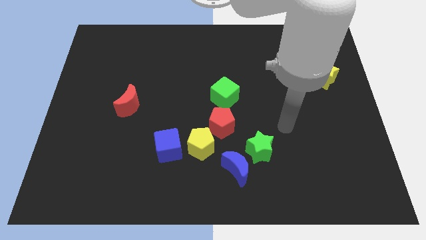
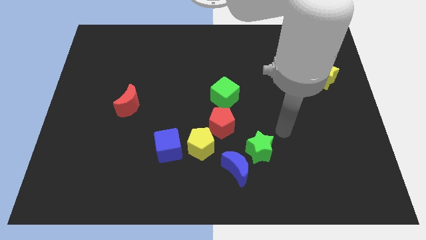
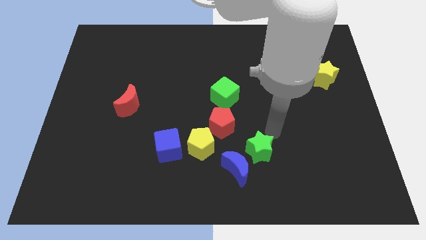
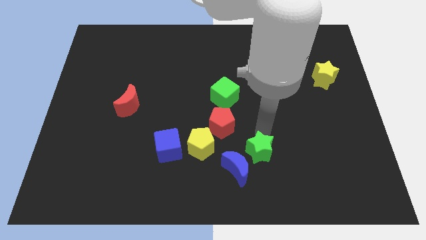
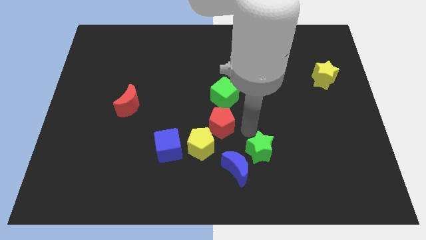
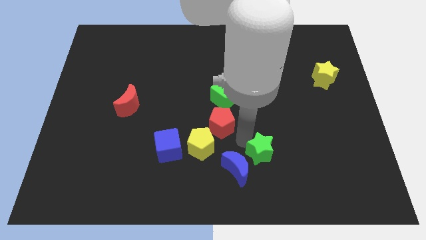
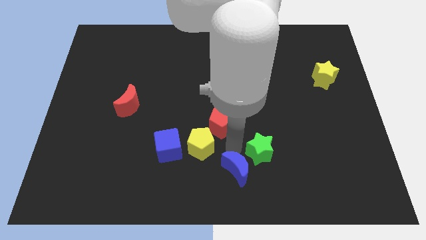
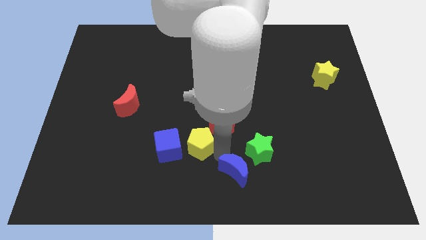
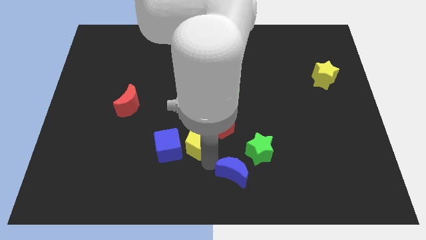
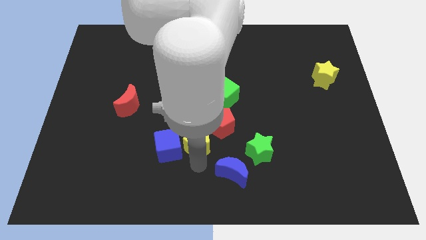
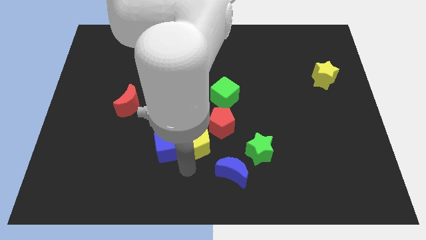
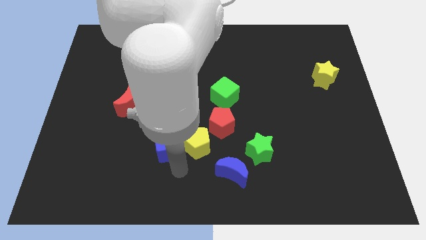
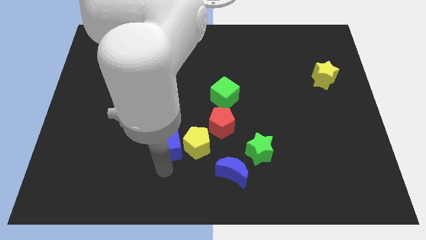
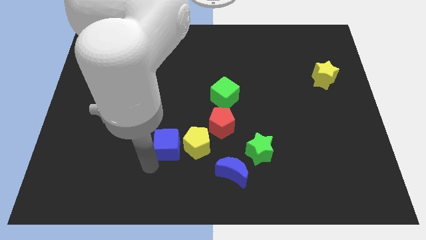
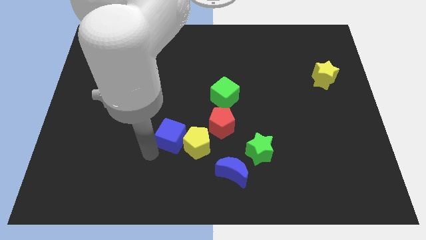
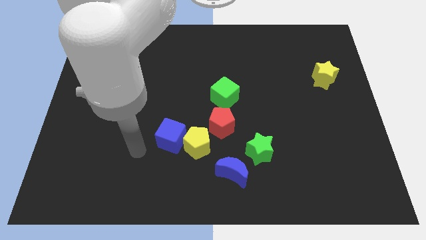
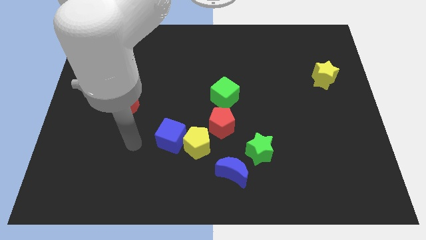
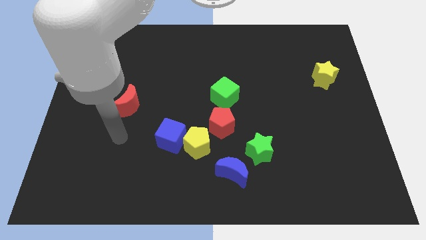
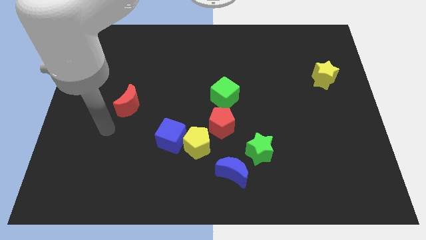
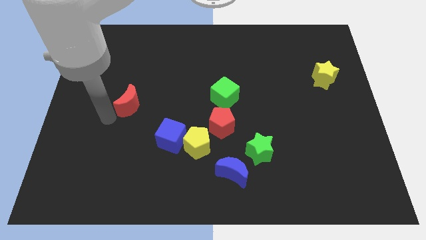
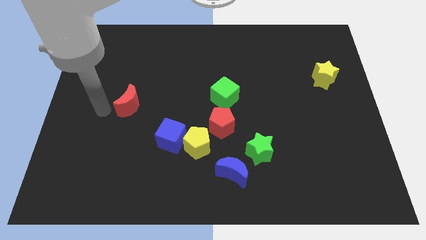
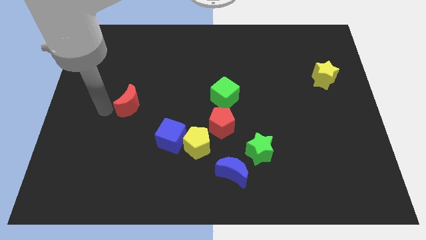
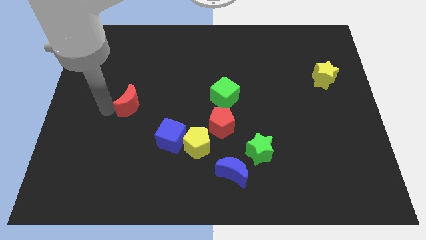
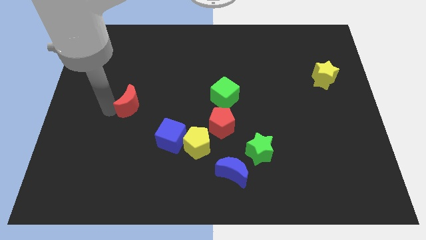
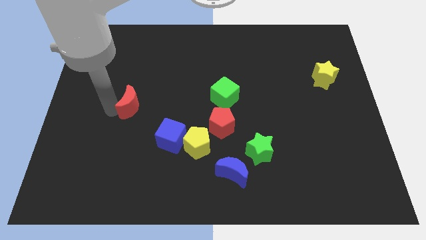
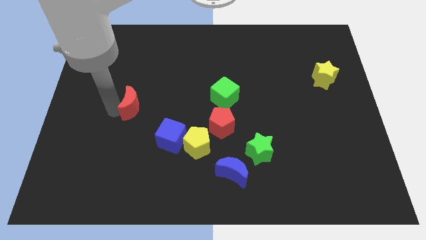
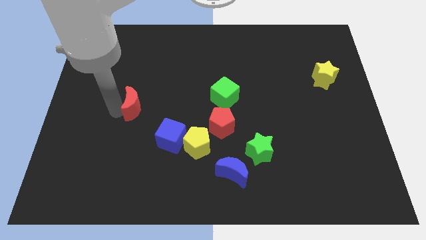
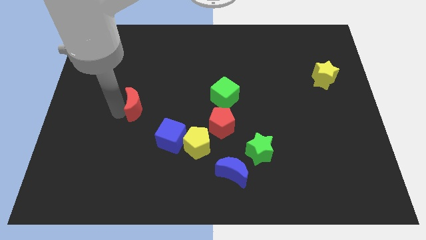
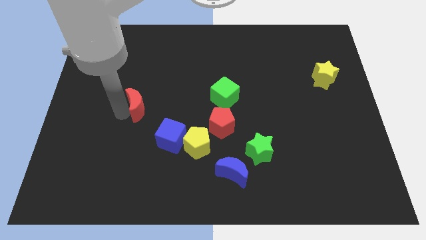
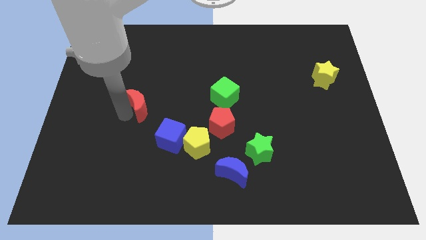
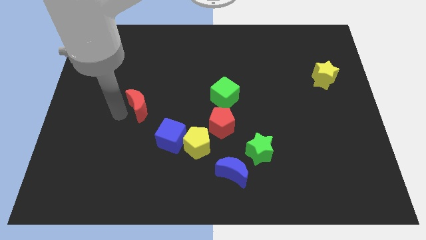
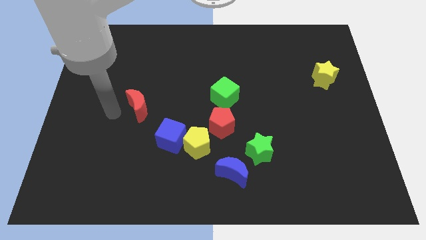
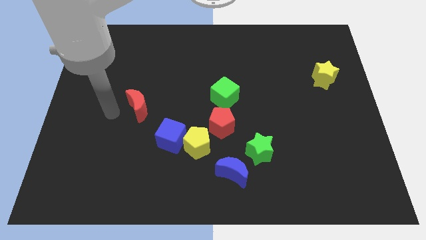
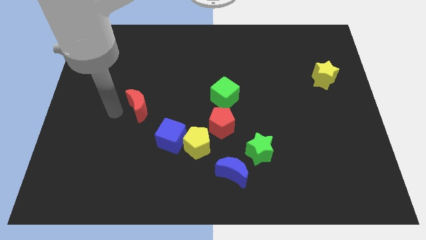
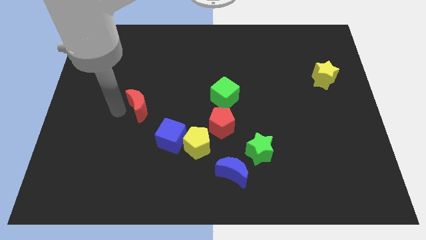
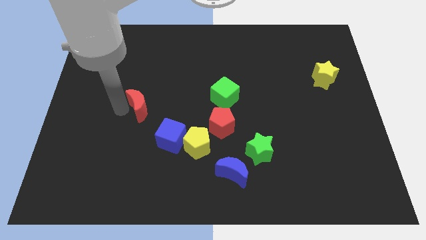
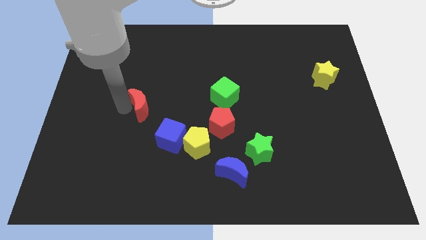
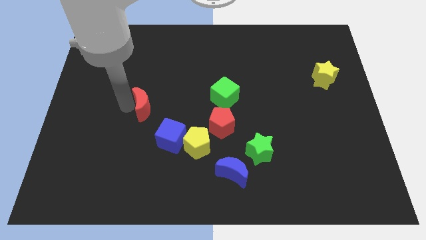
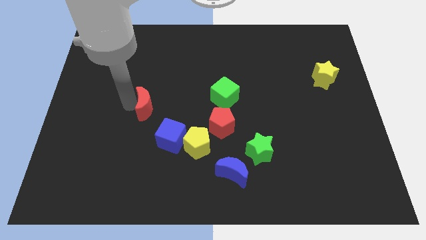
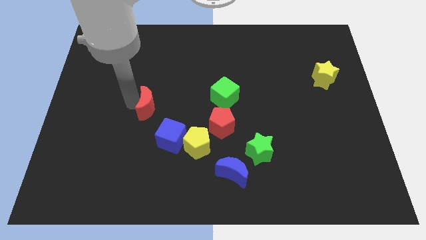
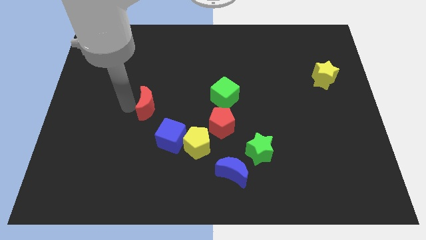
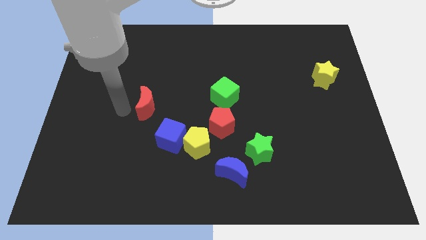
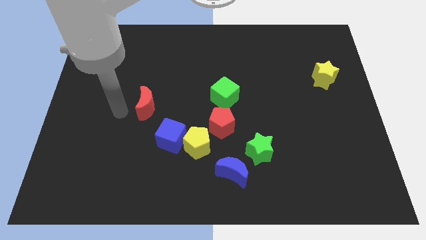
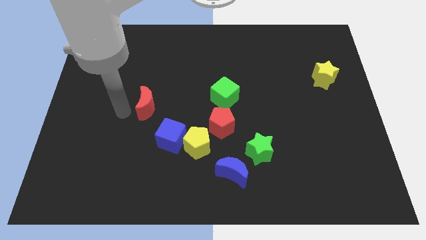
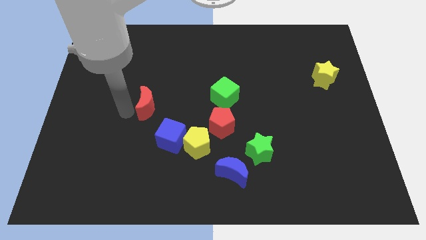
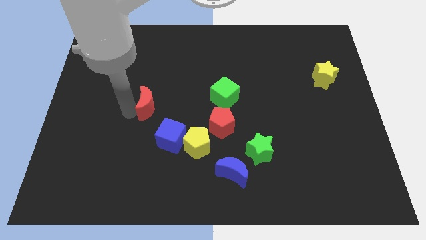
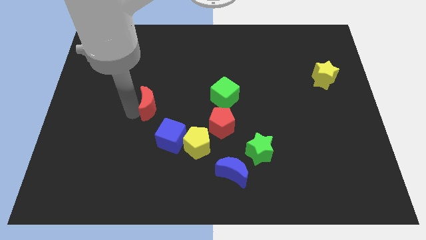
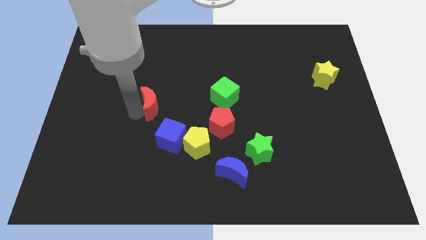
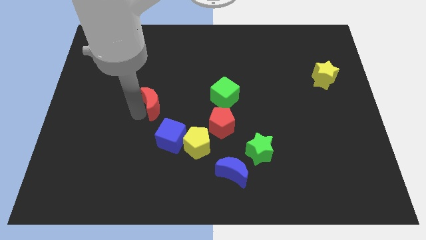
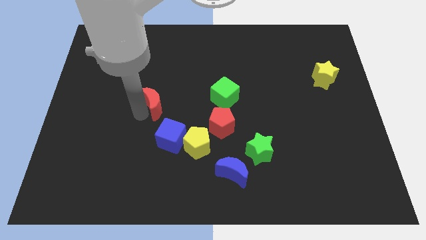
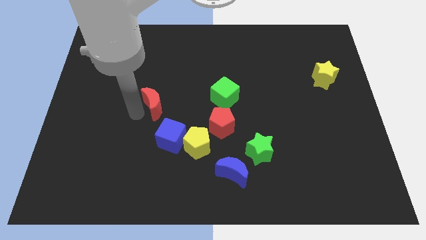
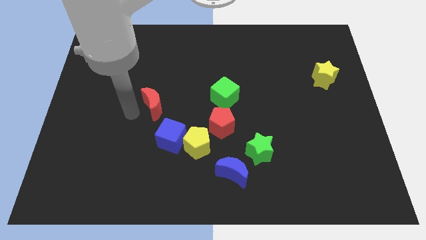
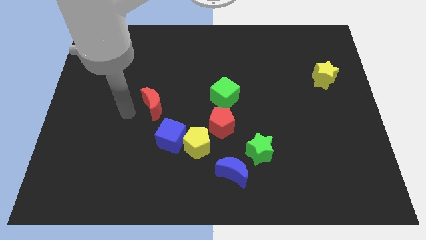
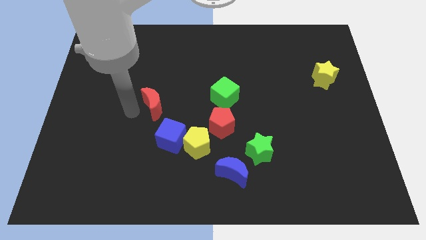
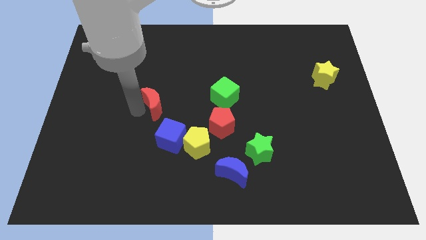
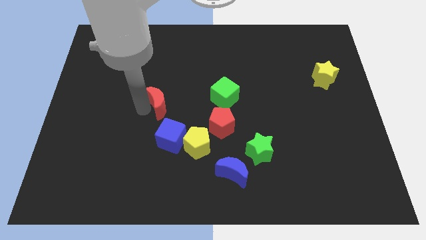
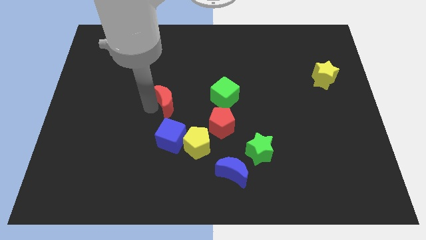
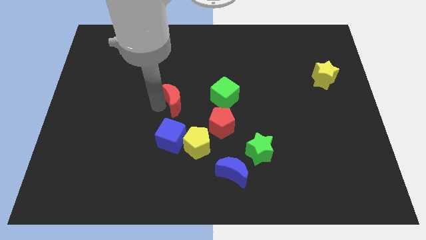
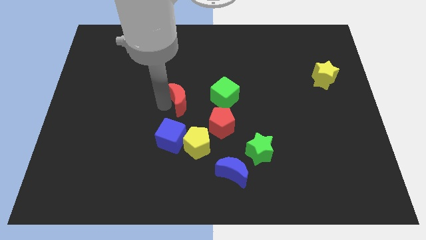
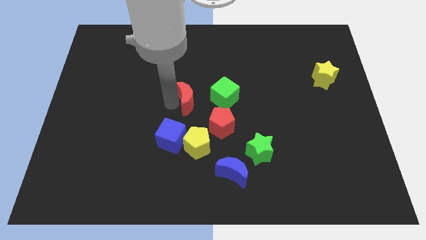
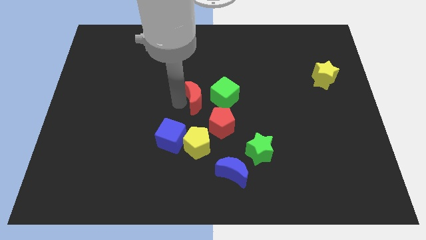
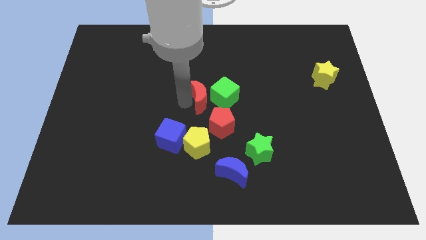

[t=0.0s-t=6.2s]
push the red moon to the green cube
